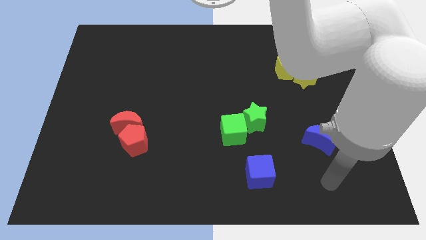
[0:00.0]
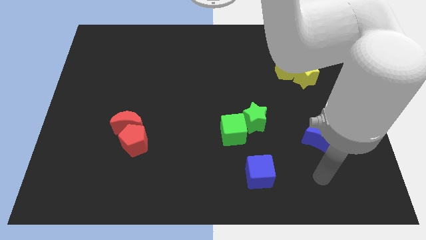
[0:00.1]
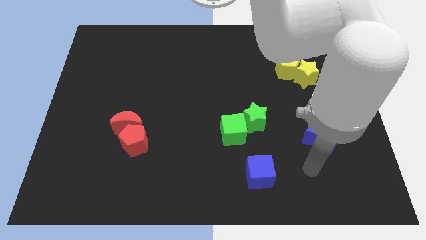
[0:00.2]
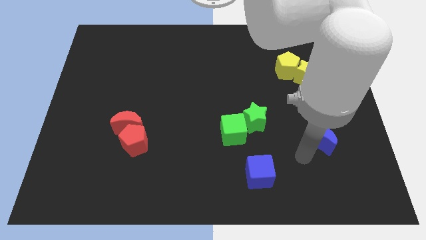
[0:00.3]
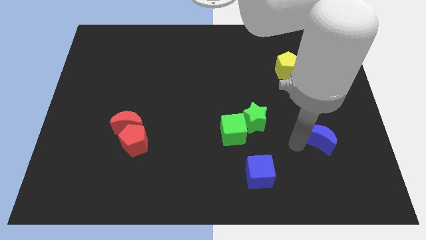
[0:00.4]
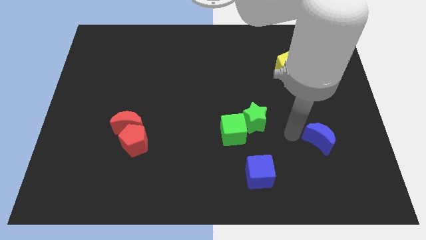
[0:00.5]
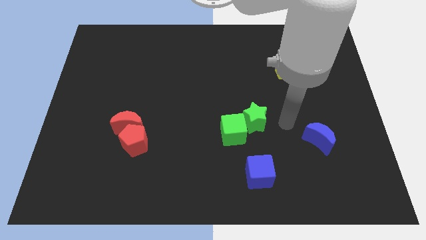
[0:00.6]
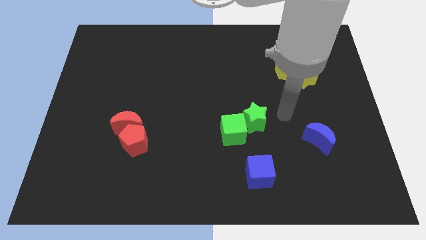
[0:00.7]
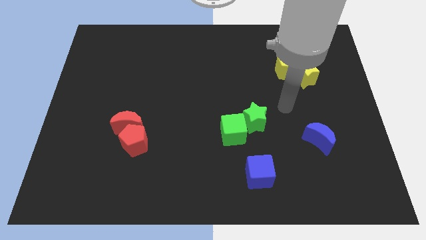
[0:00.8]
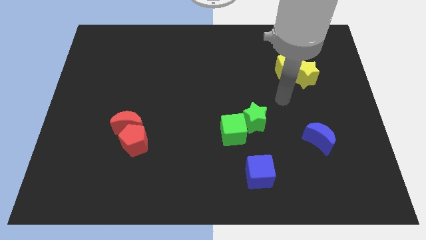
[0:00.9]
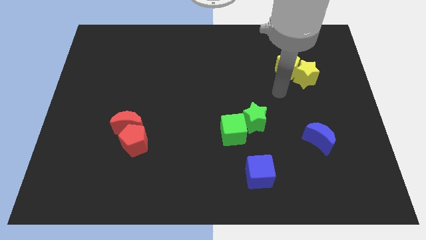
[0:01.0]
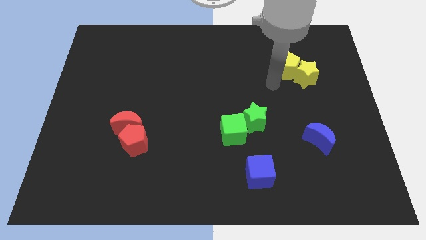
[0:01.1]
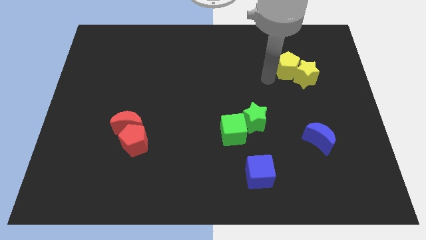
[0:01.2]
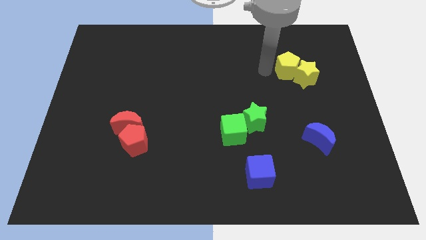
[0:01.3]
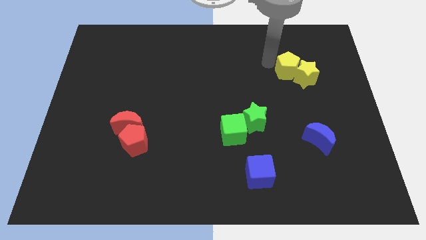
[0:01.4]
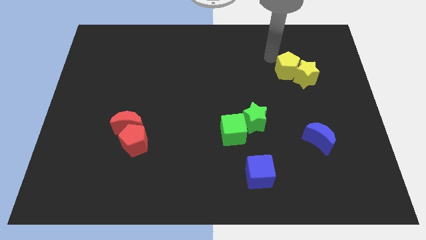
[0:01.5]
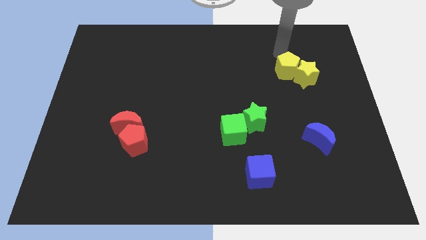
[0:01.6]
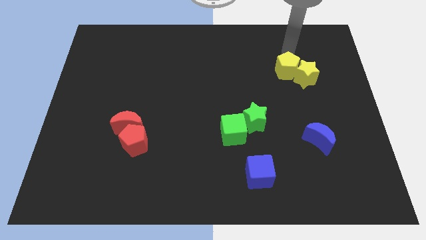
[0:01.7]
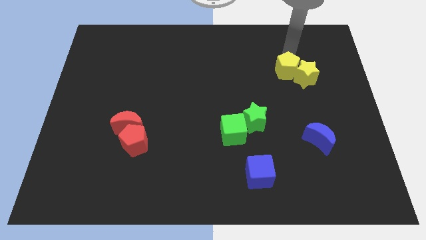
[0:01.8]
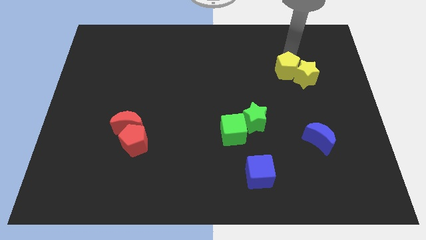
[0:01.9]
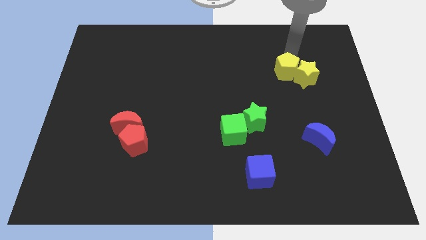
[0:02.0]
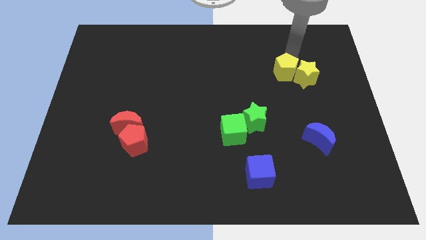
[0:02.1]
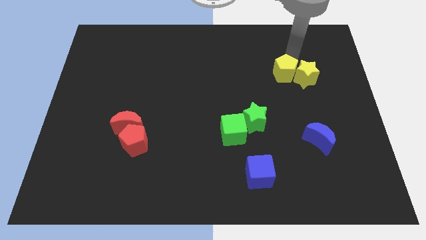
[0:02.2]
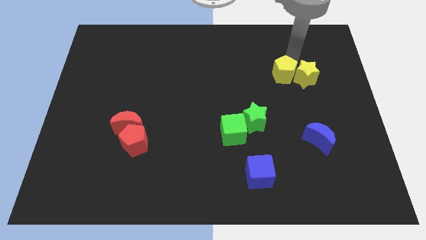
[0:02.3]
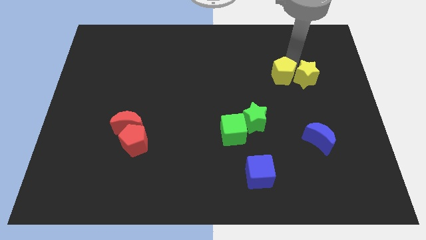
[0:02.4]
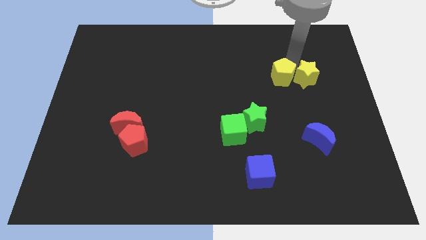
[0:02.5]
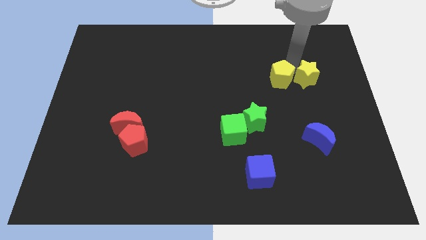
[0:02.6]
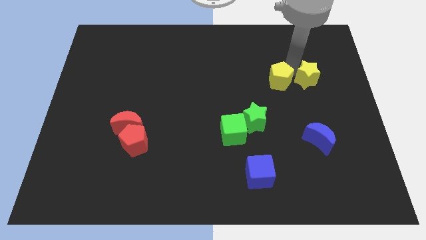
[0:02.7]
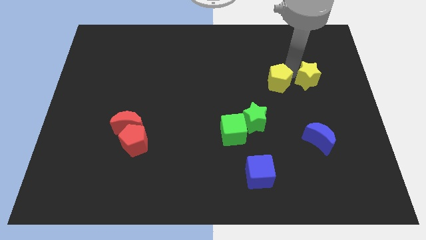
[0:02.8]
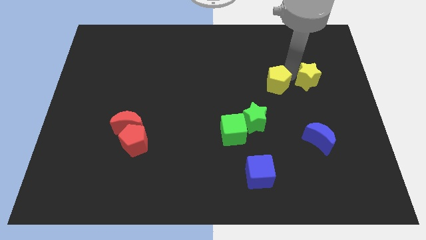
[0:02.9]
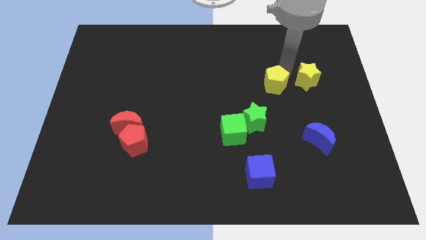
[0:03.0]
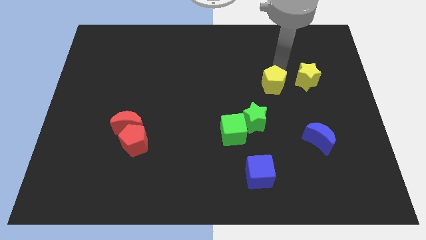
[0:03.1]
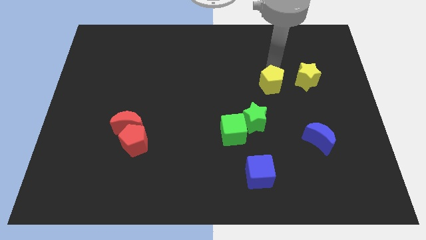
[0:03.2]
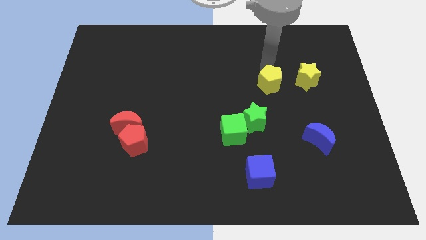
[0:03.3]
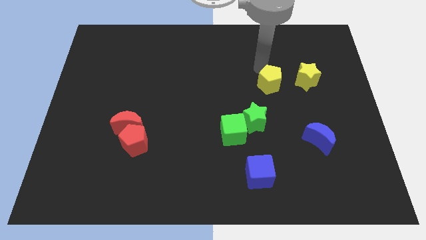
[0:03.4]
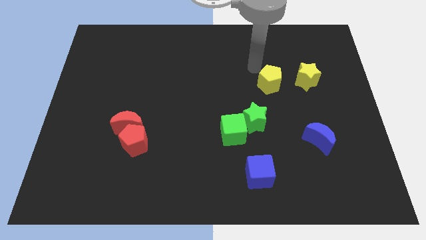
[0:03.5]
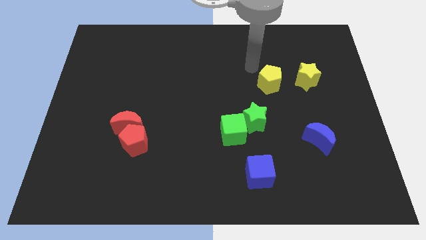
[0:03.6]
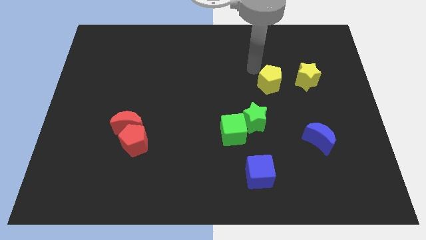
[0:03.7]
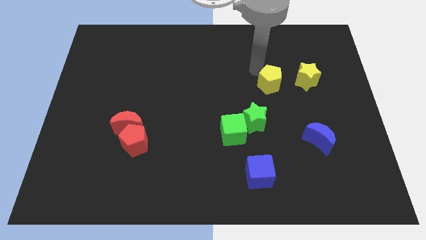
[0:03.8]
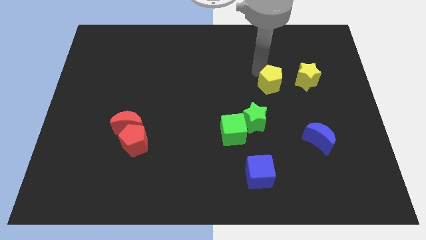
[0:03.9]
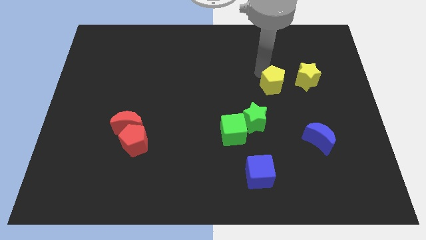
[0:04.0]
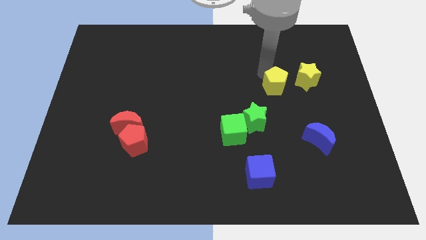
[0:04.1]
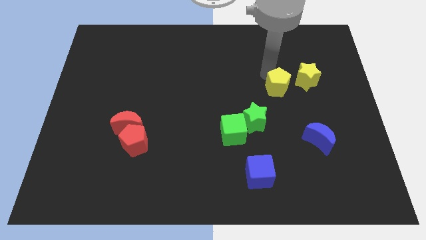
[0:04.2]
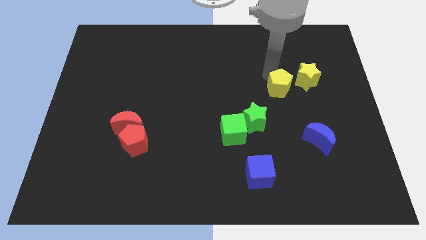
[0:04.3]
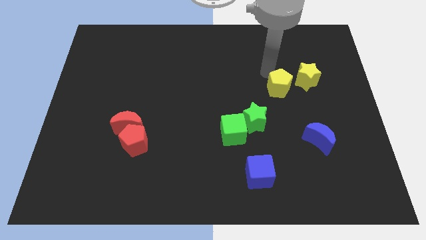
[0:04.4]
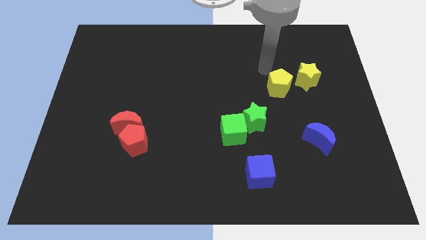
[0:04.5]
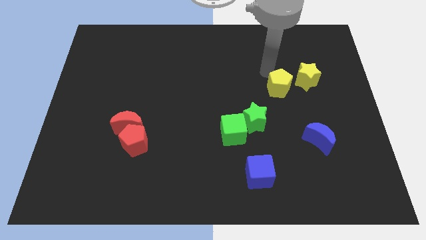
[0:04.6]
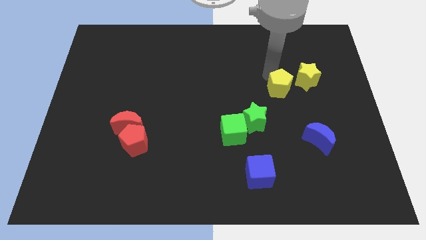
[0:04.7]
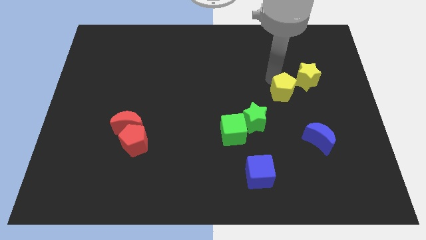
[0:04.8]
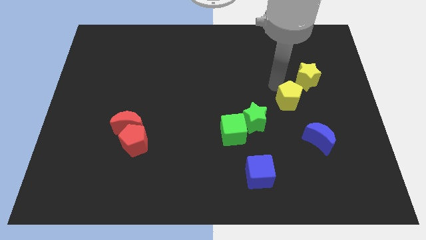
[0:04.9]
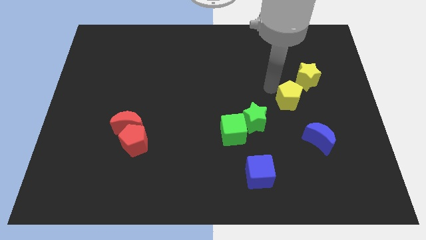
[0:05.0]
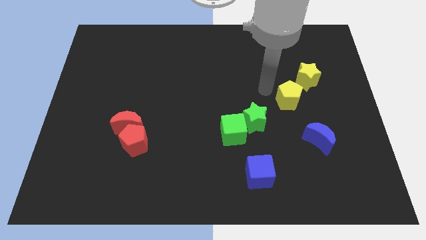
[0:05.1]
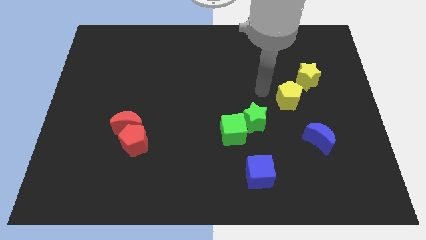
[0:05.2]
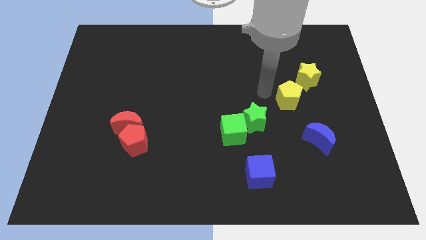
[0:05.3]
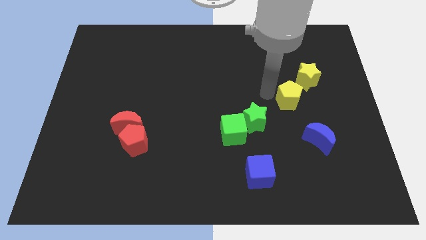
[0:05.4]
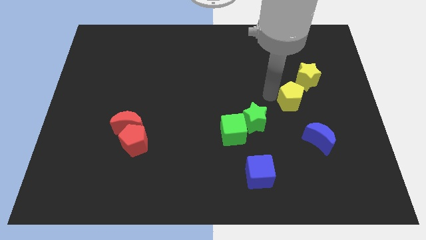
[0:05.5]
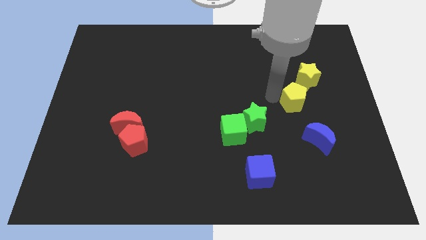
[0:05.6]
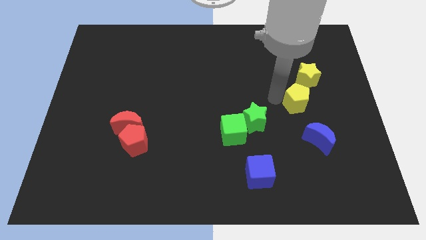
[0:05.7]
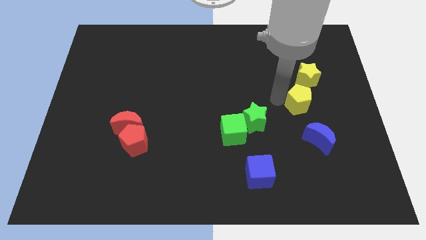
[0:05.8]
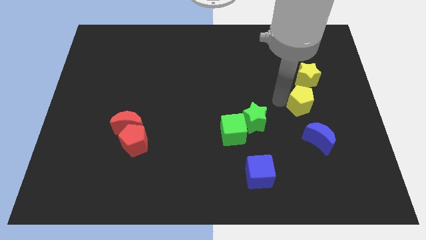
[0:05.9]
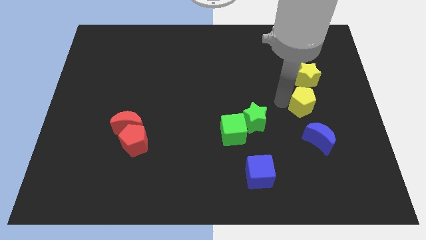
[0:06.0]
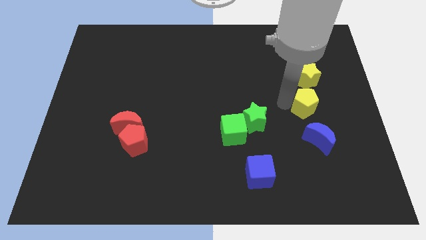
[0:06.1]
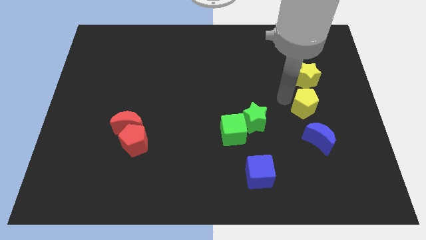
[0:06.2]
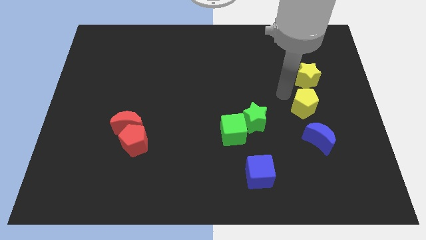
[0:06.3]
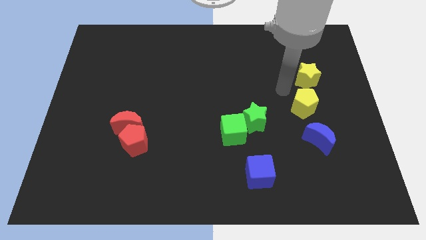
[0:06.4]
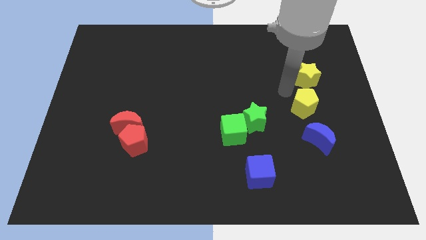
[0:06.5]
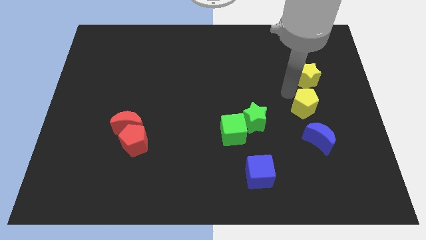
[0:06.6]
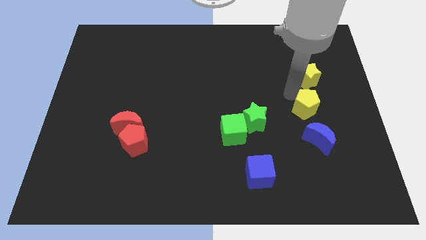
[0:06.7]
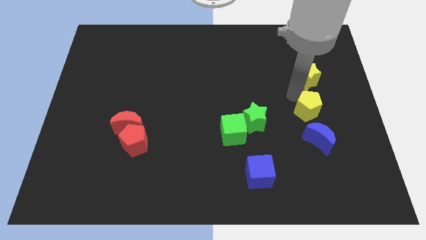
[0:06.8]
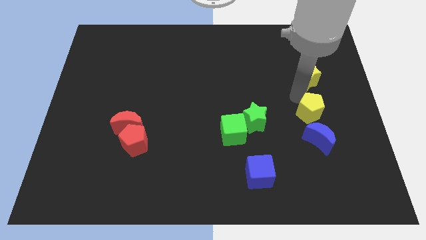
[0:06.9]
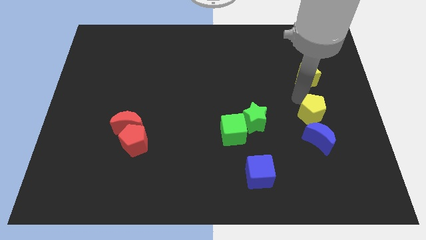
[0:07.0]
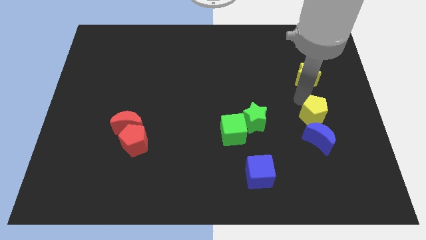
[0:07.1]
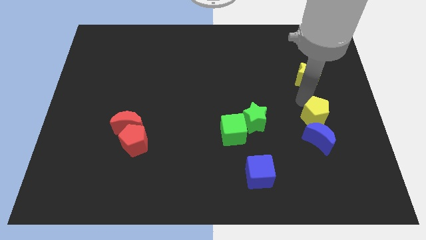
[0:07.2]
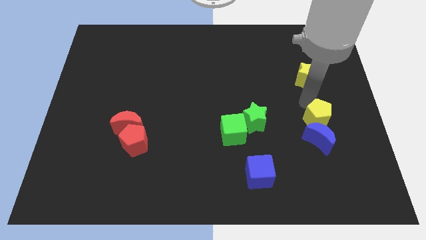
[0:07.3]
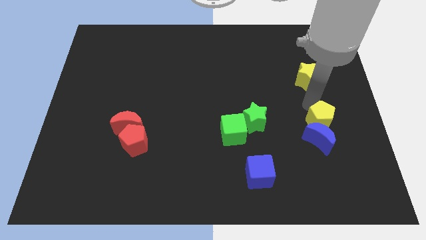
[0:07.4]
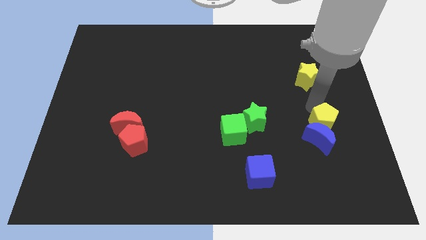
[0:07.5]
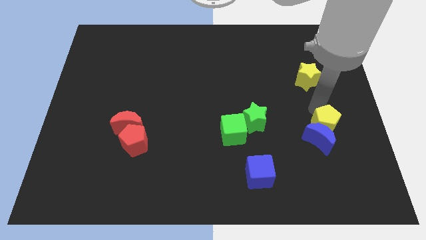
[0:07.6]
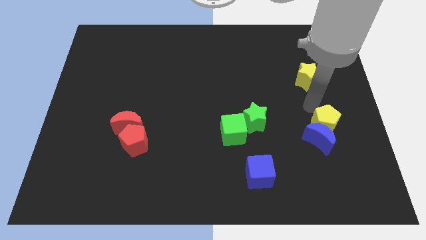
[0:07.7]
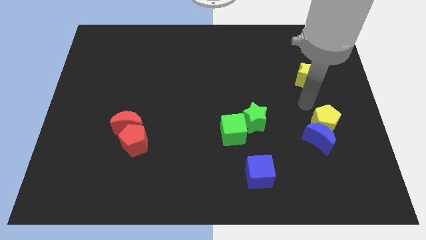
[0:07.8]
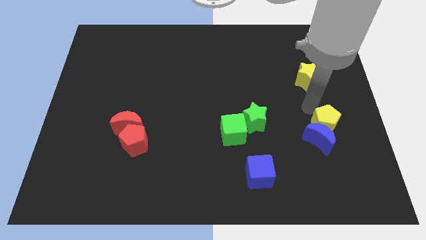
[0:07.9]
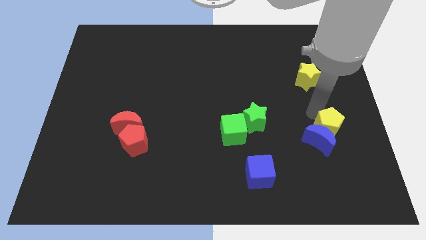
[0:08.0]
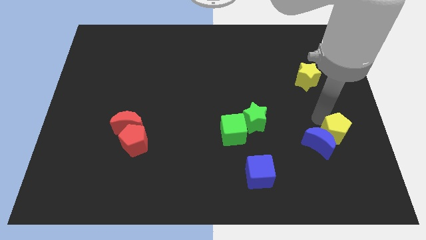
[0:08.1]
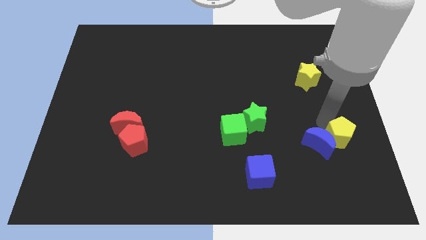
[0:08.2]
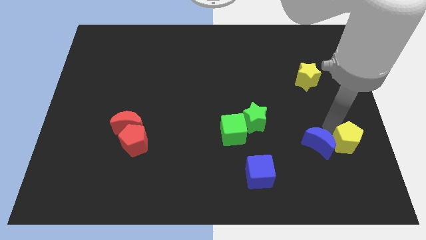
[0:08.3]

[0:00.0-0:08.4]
put the yellow pentagon to the bottom right of the blue moon
